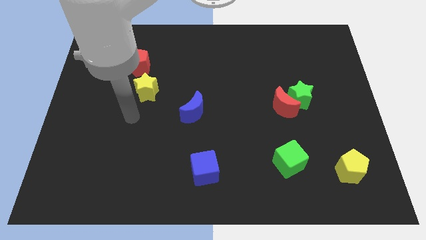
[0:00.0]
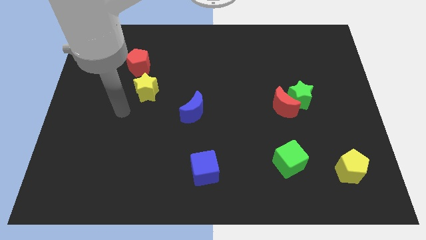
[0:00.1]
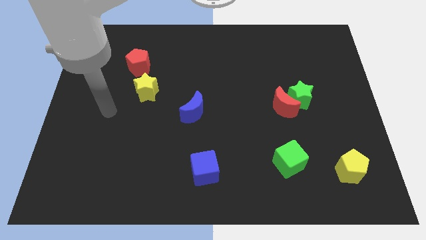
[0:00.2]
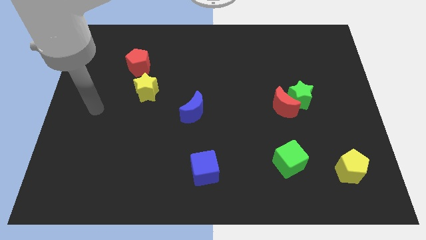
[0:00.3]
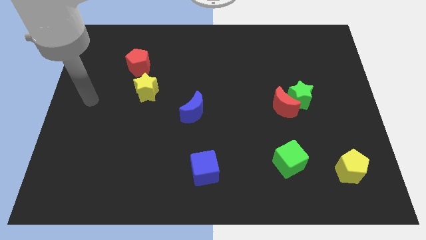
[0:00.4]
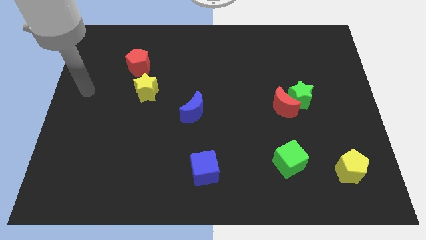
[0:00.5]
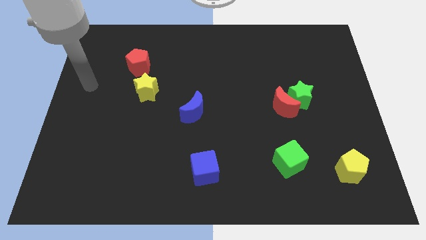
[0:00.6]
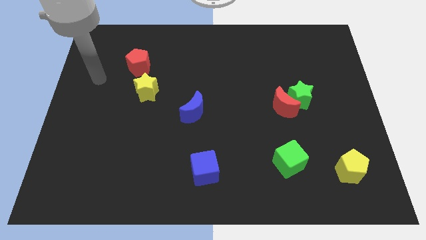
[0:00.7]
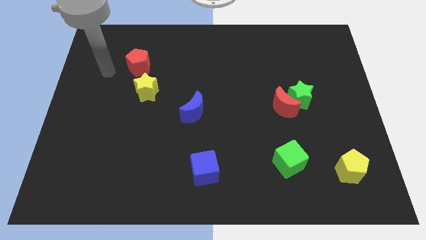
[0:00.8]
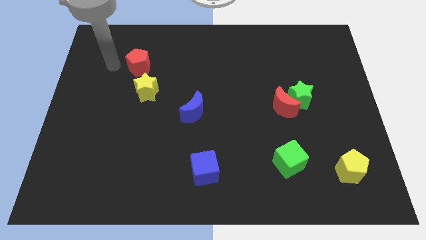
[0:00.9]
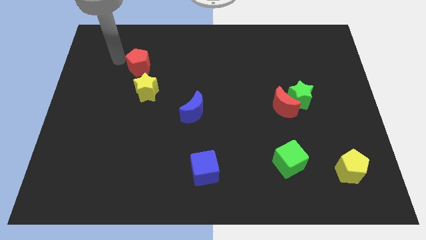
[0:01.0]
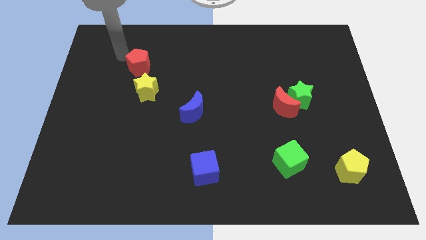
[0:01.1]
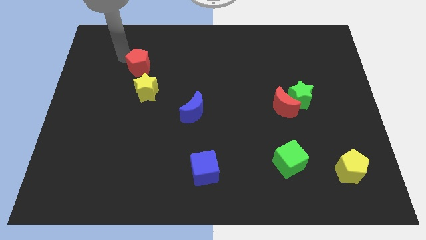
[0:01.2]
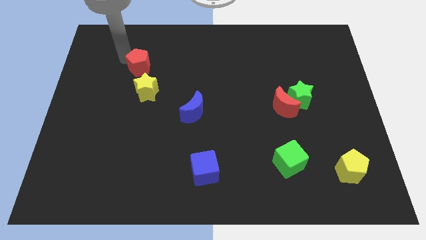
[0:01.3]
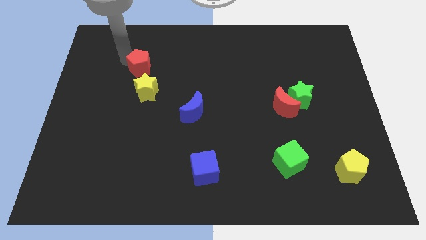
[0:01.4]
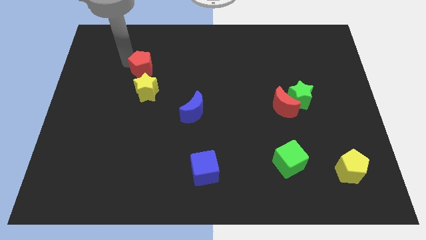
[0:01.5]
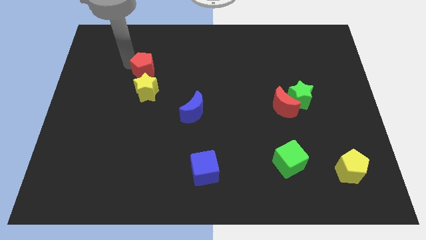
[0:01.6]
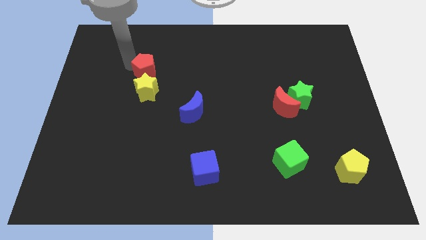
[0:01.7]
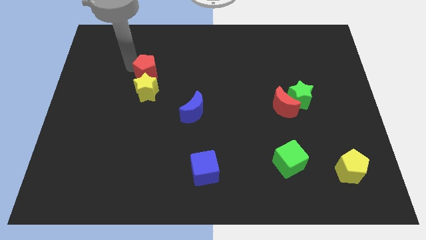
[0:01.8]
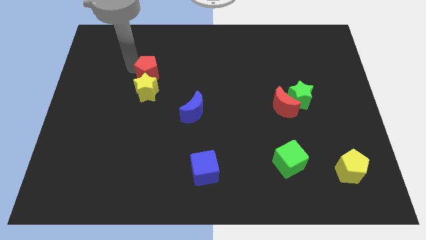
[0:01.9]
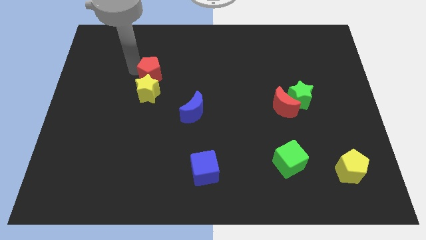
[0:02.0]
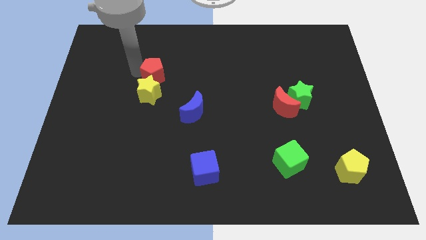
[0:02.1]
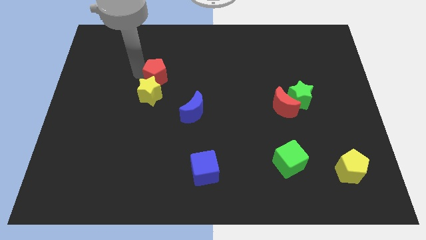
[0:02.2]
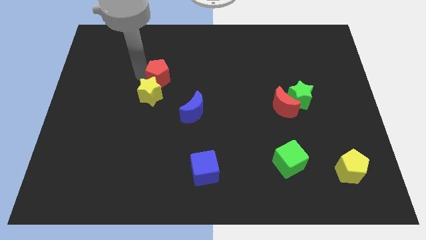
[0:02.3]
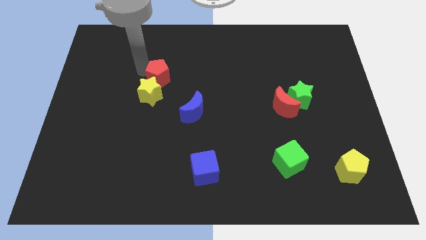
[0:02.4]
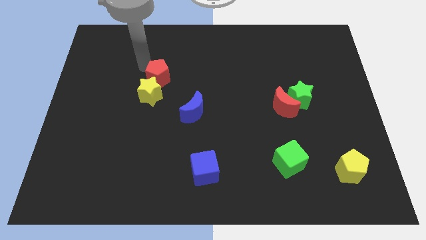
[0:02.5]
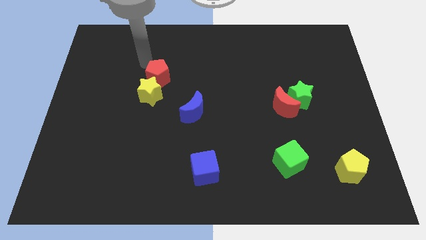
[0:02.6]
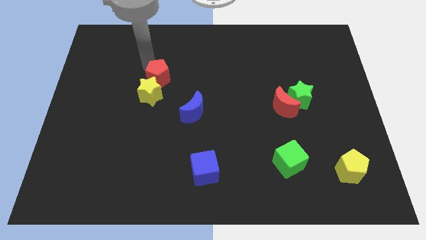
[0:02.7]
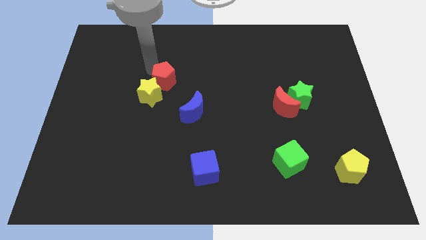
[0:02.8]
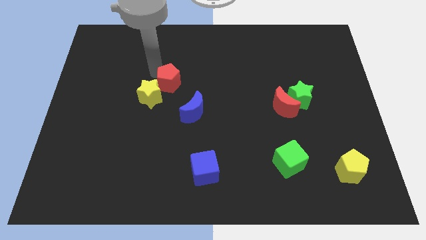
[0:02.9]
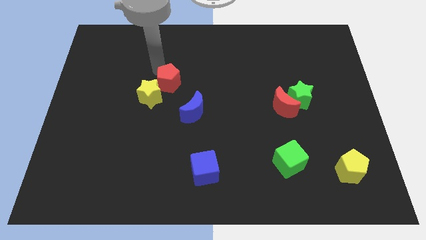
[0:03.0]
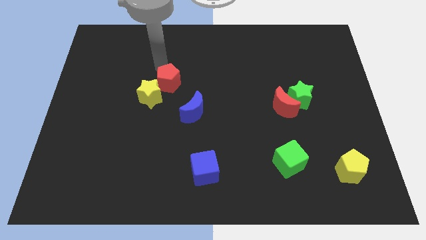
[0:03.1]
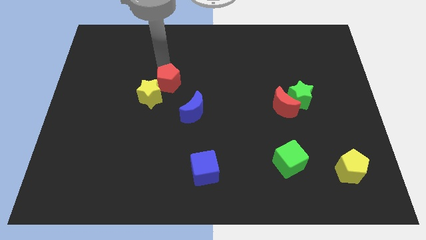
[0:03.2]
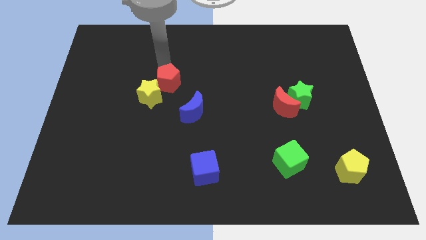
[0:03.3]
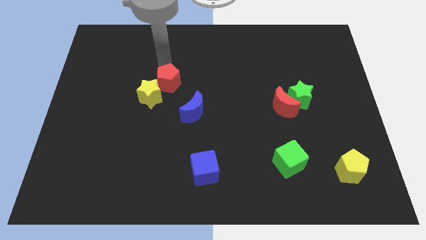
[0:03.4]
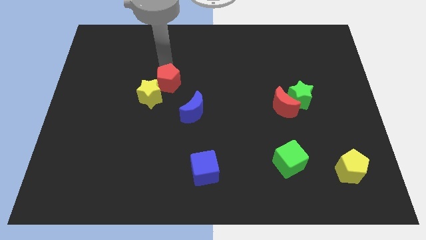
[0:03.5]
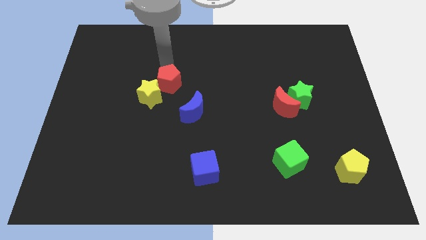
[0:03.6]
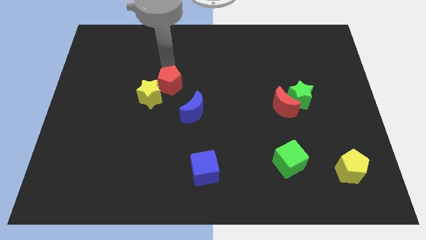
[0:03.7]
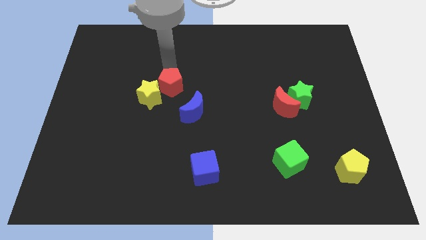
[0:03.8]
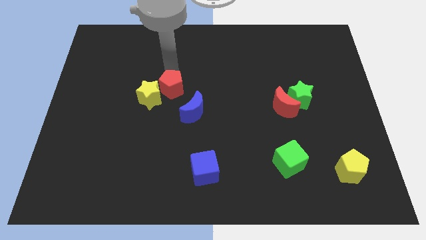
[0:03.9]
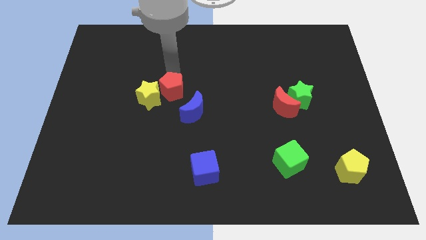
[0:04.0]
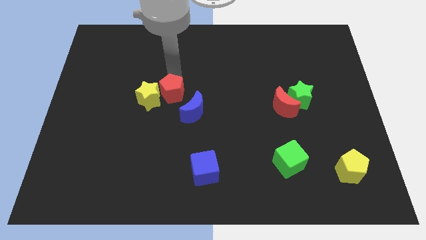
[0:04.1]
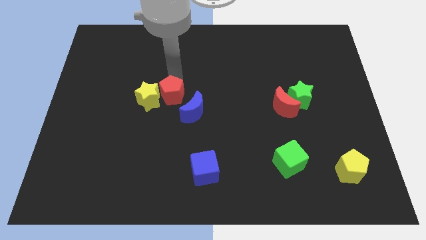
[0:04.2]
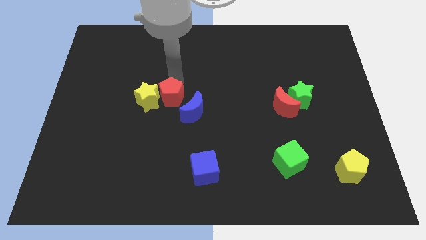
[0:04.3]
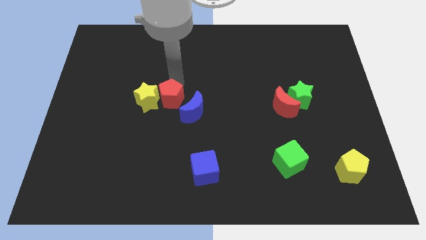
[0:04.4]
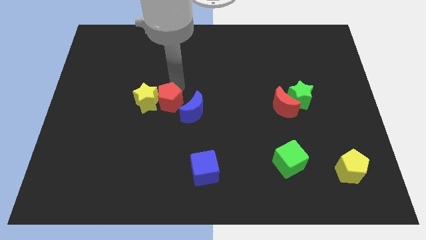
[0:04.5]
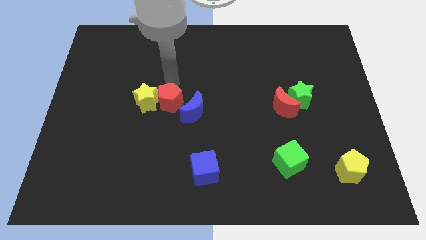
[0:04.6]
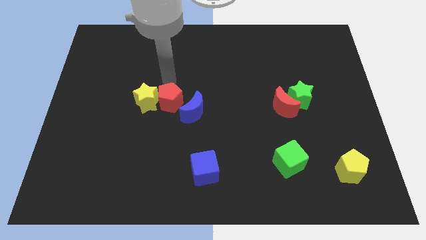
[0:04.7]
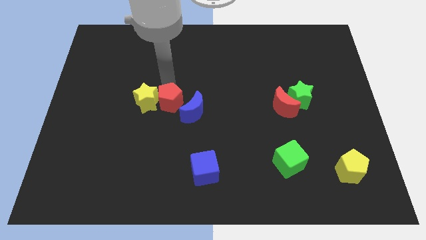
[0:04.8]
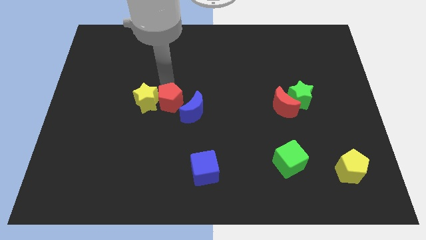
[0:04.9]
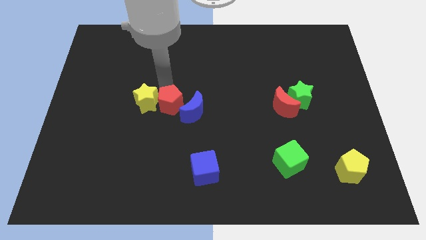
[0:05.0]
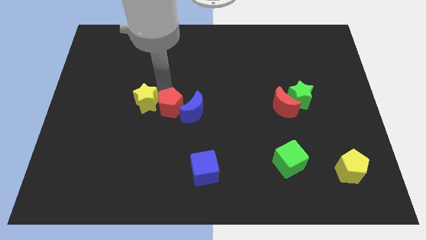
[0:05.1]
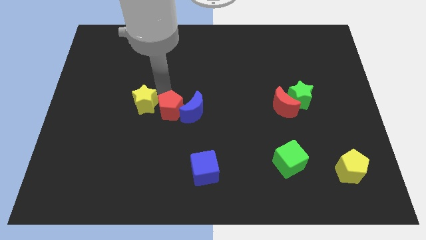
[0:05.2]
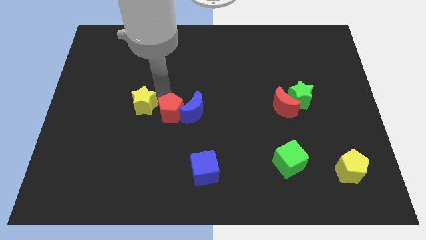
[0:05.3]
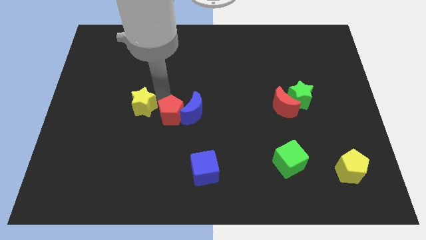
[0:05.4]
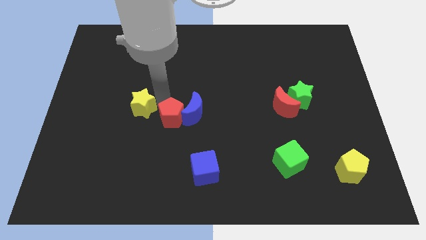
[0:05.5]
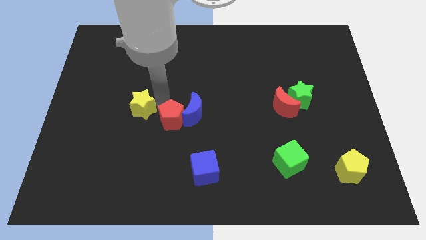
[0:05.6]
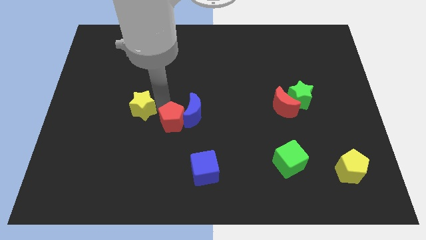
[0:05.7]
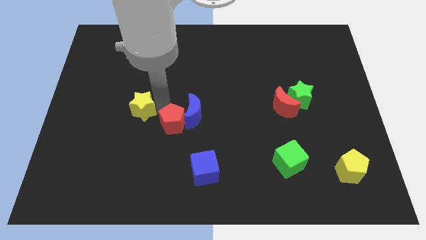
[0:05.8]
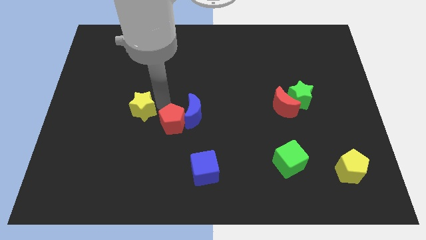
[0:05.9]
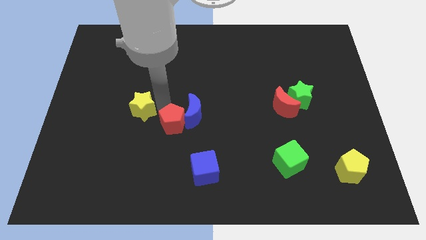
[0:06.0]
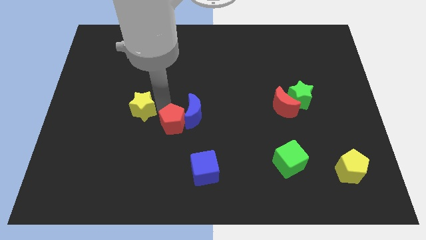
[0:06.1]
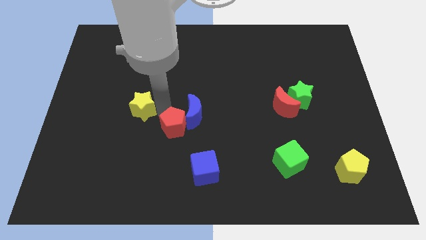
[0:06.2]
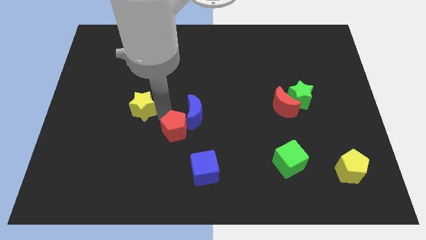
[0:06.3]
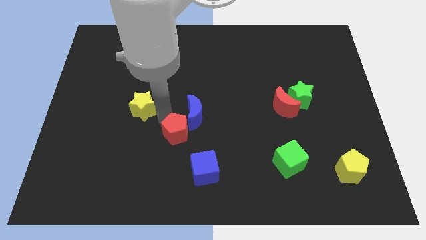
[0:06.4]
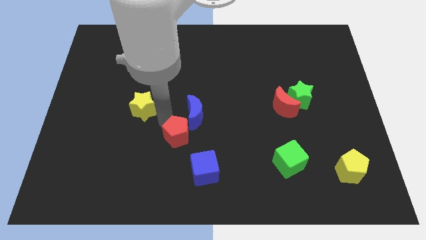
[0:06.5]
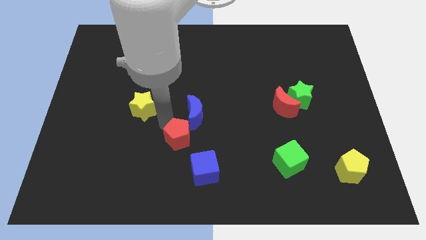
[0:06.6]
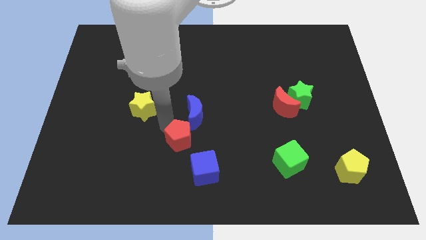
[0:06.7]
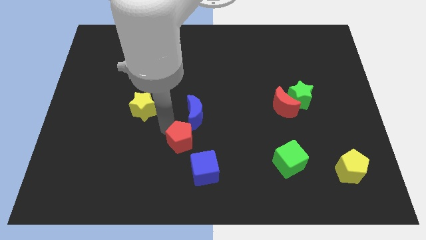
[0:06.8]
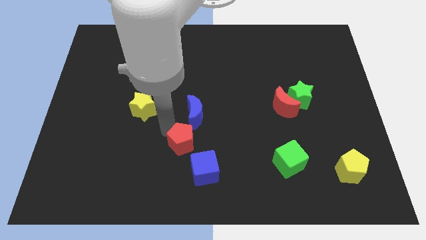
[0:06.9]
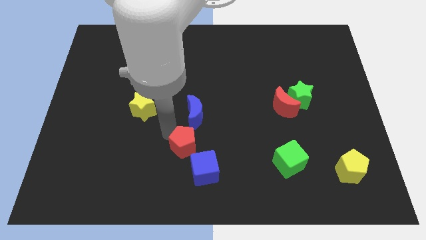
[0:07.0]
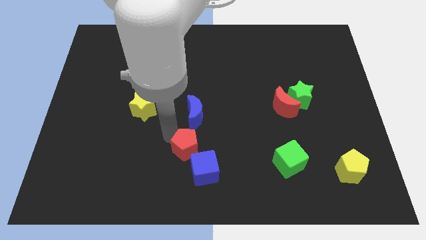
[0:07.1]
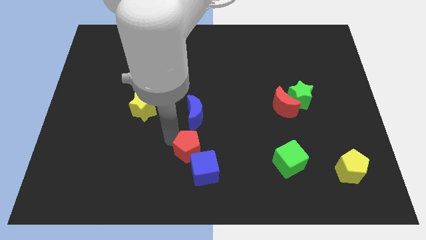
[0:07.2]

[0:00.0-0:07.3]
put the red pentagon to the blue cube
